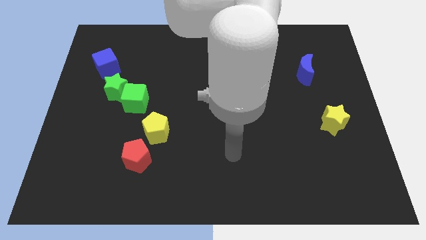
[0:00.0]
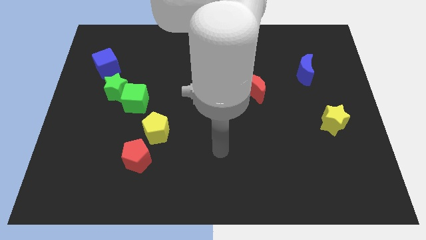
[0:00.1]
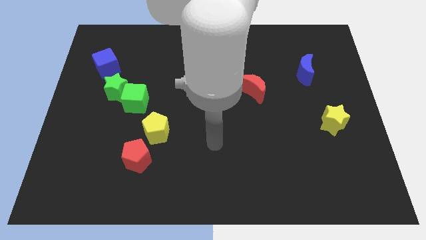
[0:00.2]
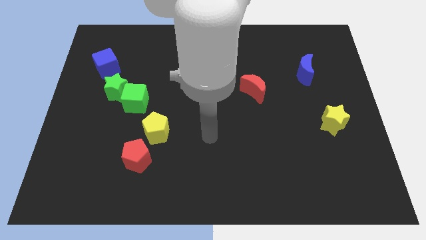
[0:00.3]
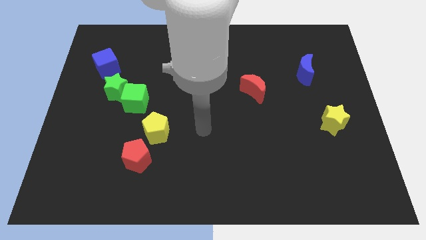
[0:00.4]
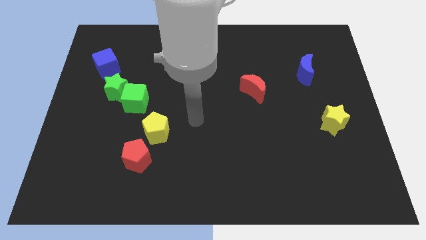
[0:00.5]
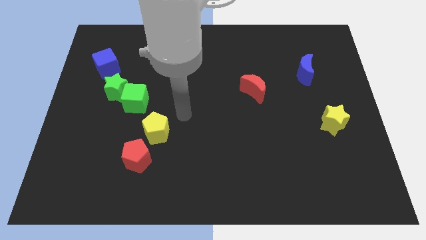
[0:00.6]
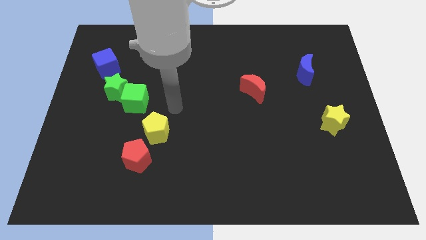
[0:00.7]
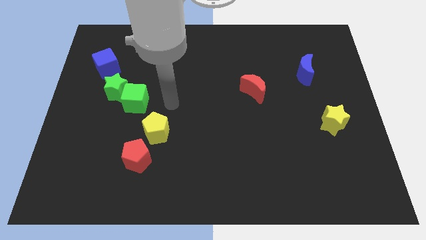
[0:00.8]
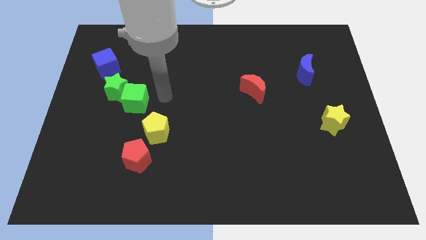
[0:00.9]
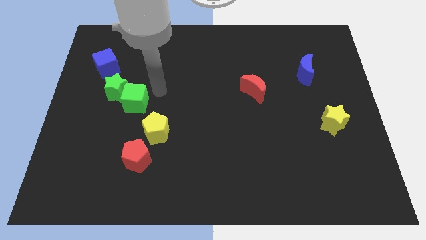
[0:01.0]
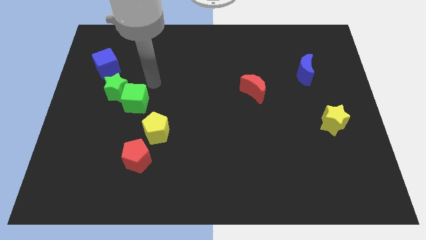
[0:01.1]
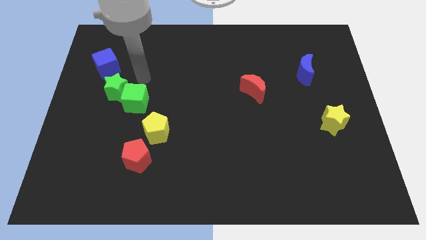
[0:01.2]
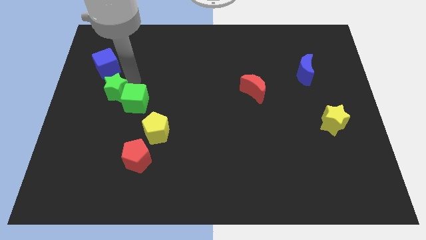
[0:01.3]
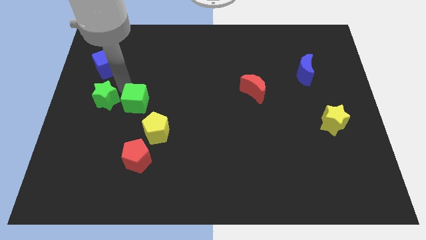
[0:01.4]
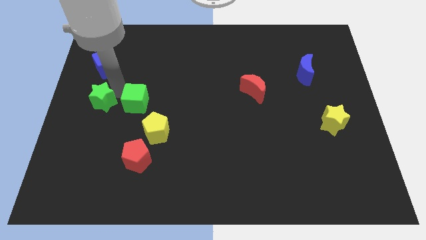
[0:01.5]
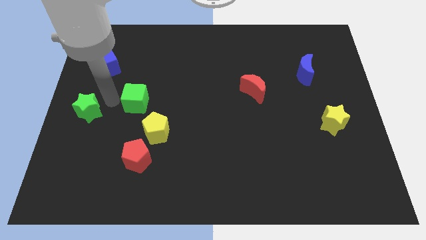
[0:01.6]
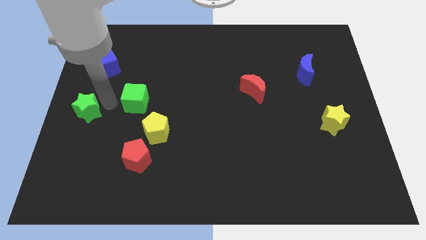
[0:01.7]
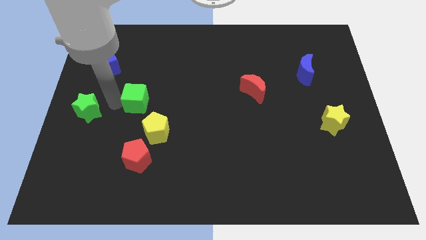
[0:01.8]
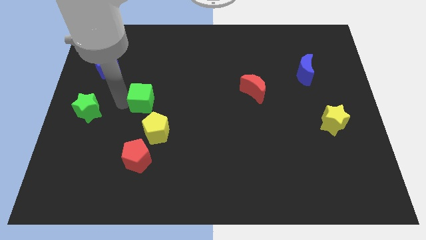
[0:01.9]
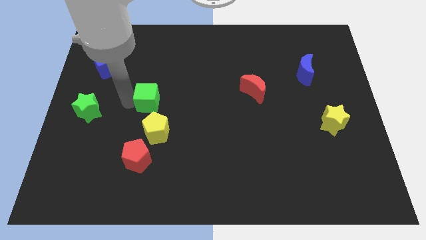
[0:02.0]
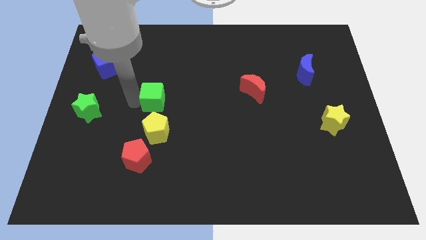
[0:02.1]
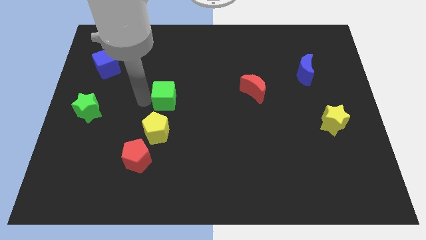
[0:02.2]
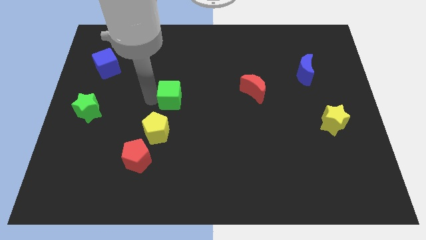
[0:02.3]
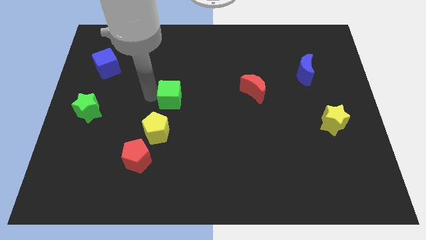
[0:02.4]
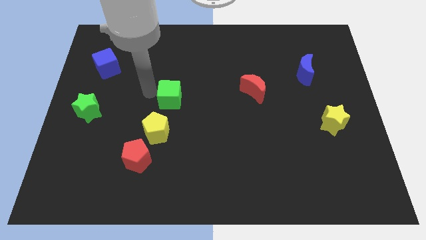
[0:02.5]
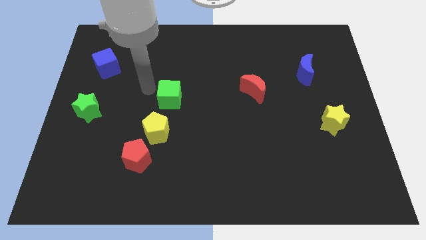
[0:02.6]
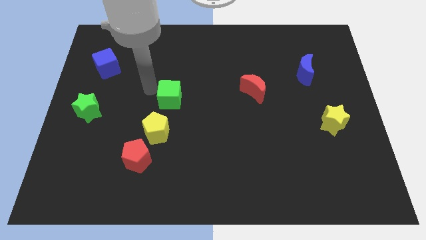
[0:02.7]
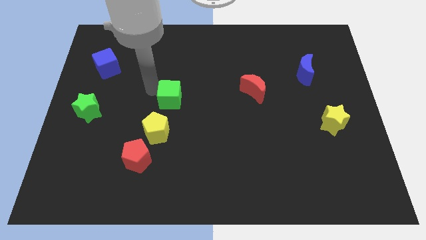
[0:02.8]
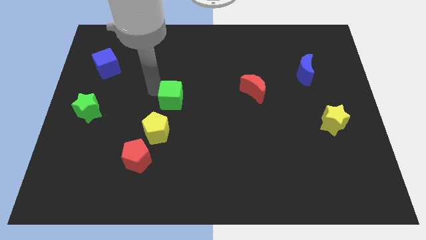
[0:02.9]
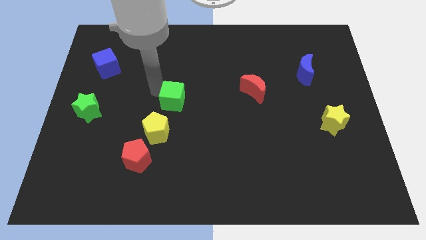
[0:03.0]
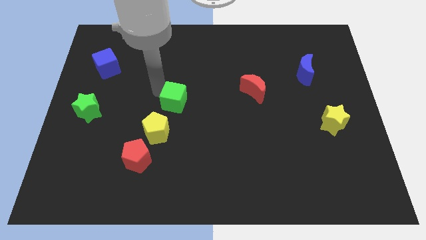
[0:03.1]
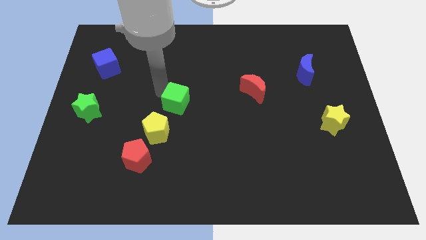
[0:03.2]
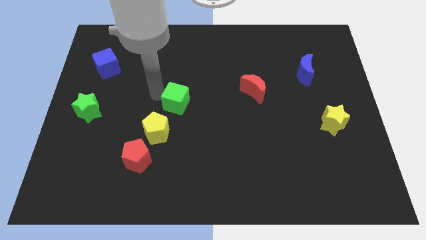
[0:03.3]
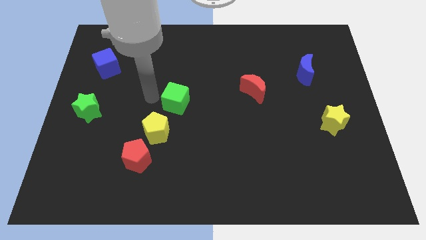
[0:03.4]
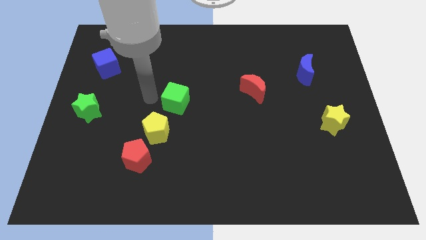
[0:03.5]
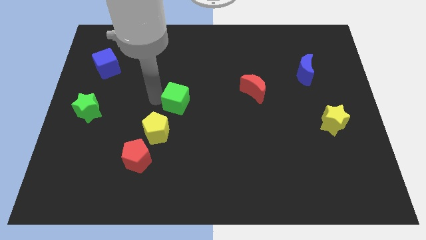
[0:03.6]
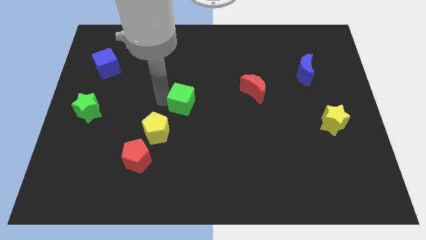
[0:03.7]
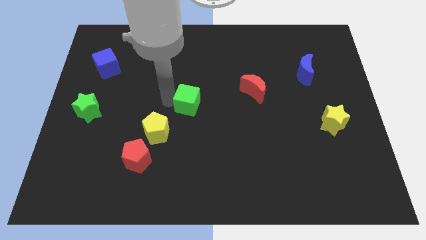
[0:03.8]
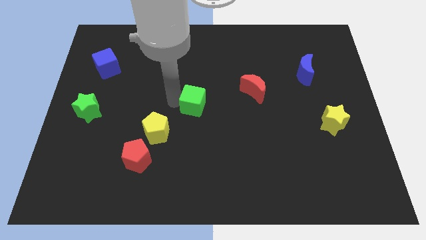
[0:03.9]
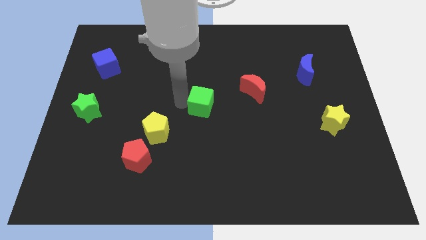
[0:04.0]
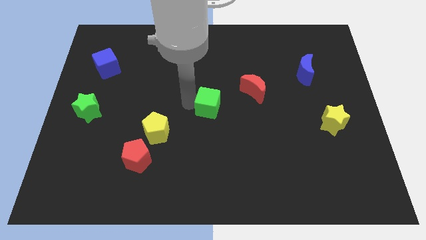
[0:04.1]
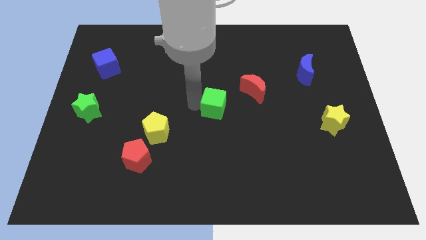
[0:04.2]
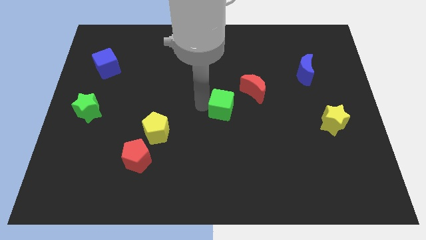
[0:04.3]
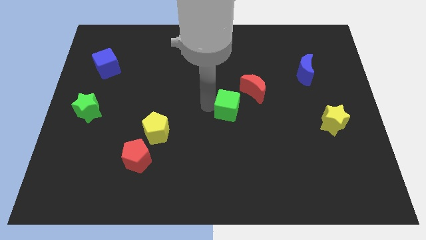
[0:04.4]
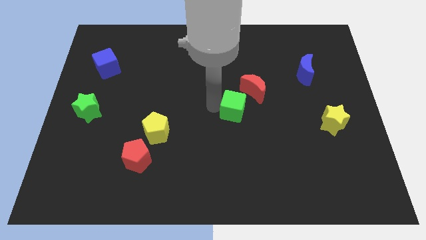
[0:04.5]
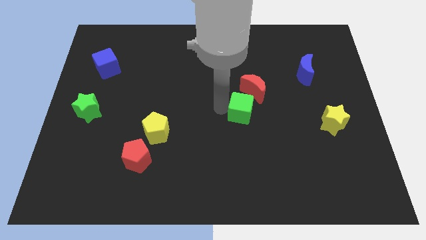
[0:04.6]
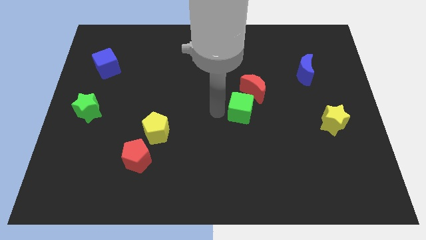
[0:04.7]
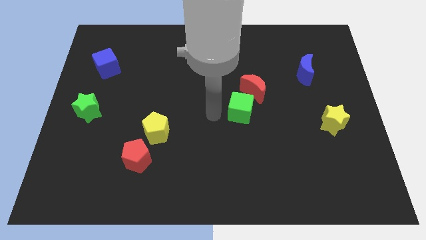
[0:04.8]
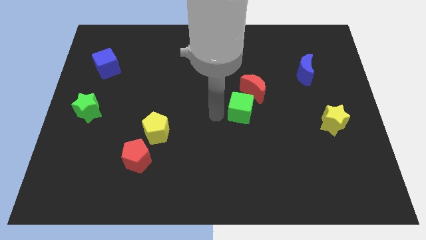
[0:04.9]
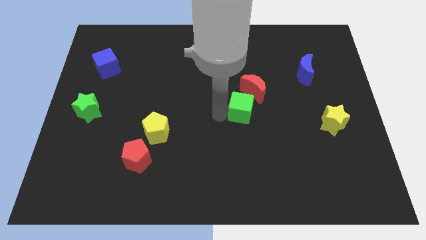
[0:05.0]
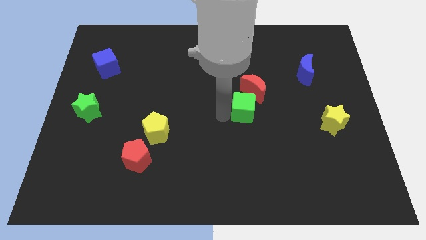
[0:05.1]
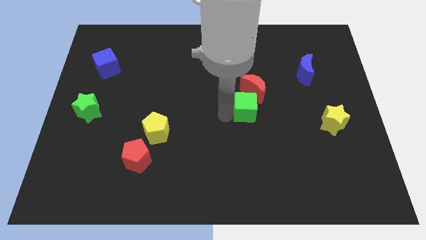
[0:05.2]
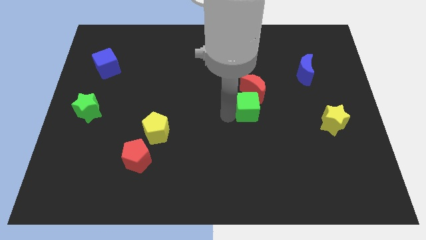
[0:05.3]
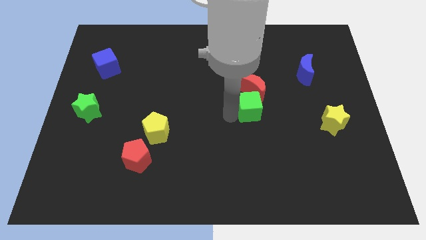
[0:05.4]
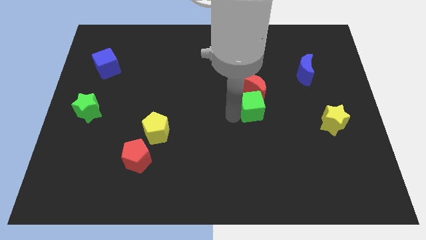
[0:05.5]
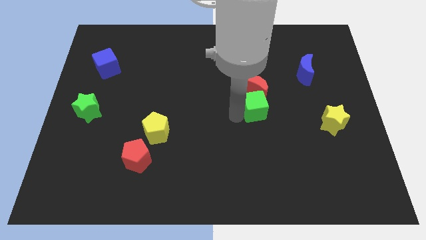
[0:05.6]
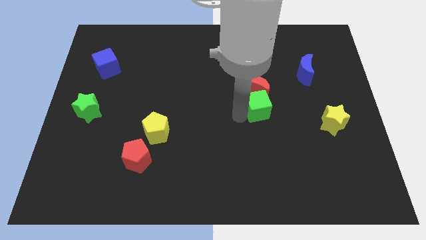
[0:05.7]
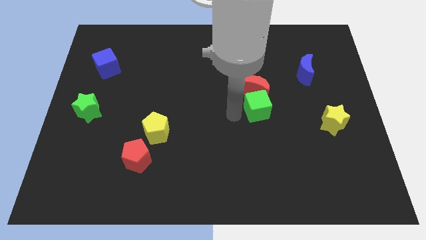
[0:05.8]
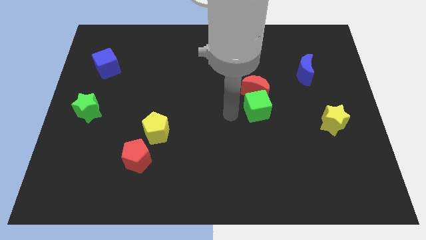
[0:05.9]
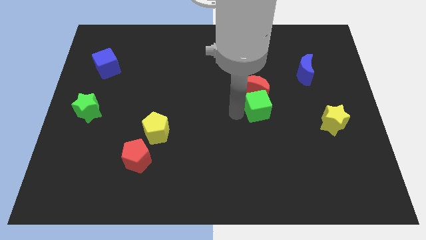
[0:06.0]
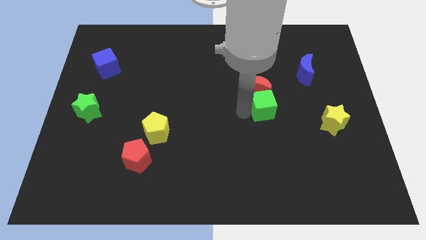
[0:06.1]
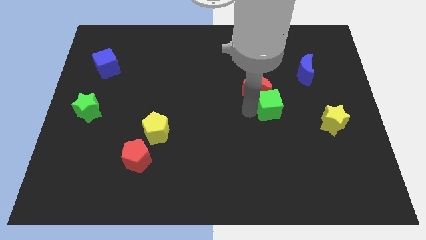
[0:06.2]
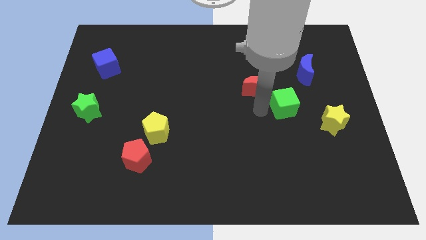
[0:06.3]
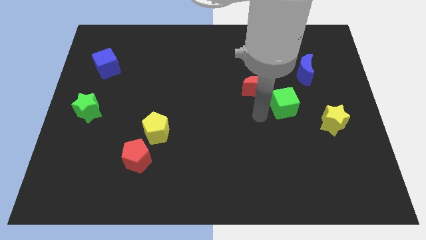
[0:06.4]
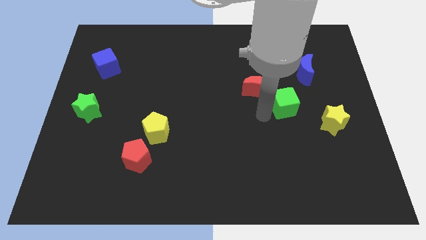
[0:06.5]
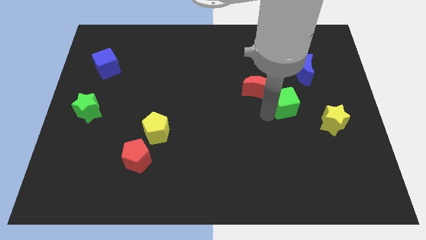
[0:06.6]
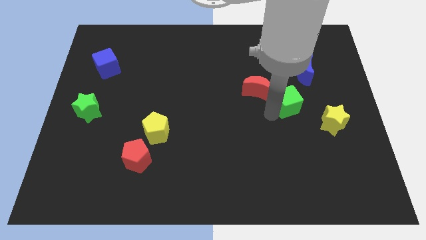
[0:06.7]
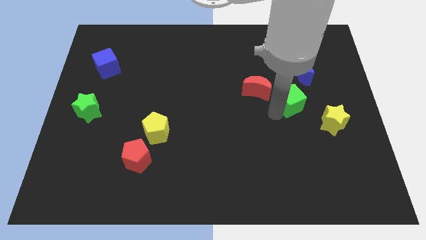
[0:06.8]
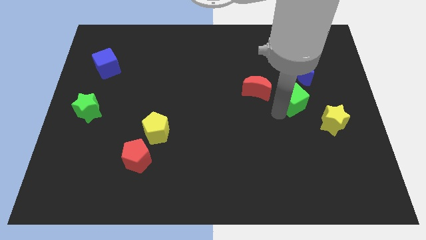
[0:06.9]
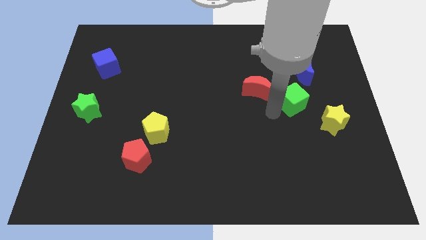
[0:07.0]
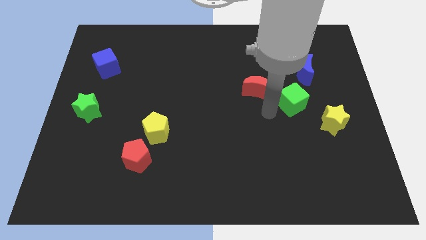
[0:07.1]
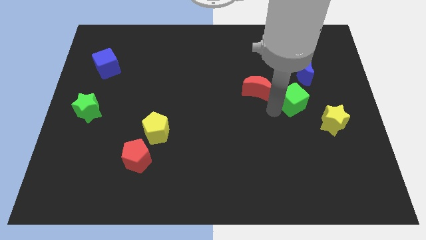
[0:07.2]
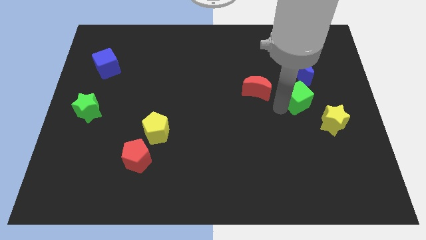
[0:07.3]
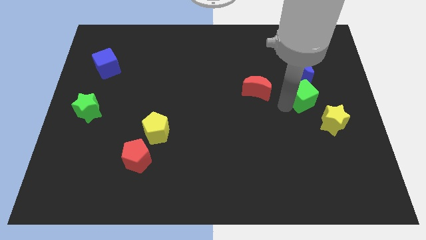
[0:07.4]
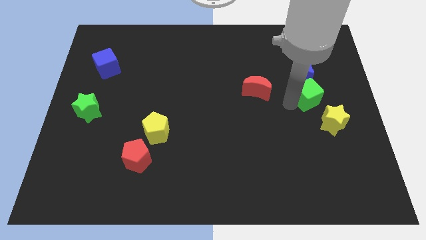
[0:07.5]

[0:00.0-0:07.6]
move the green cube above the yellow star

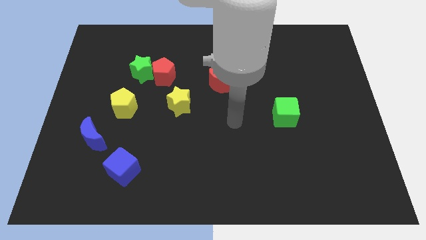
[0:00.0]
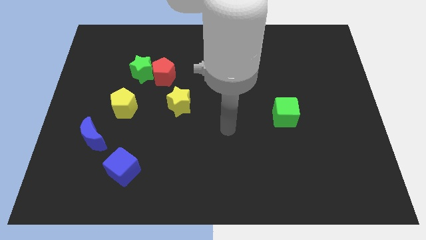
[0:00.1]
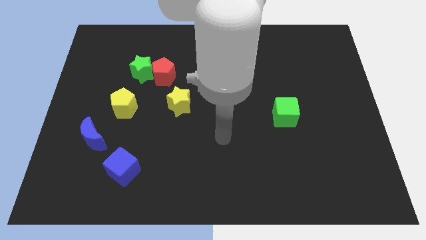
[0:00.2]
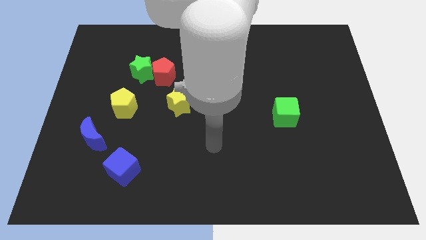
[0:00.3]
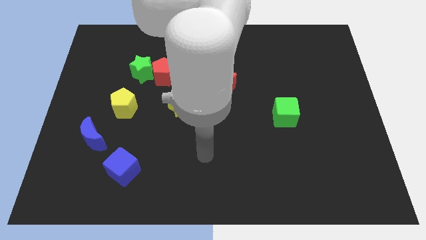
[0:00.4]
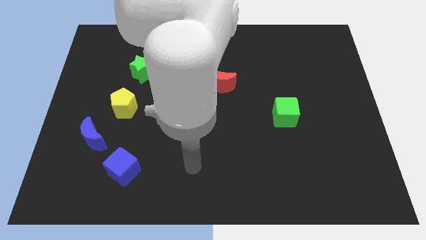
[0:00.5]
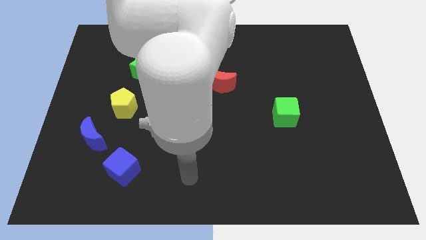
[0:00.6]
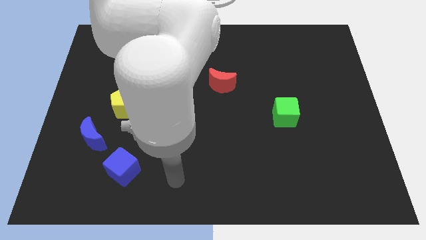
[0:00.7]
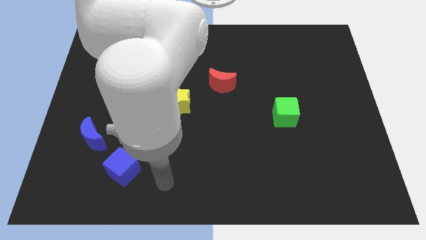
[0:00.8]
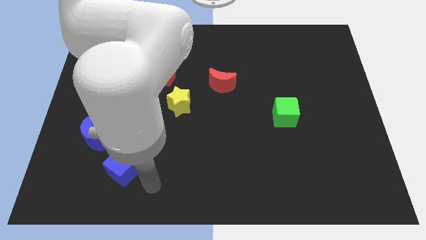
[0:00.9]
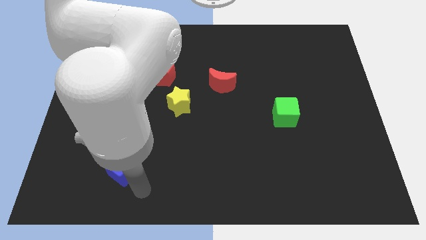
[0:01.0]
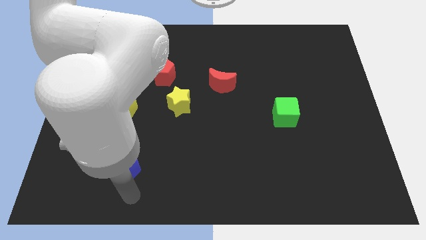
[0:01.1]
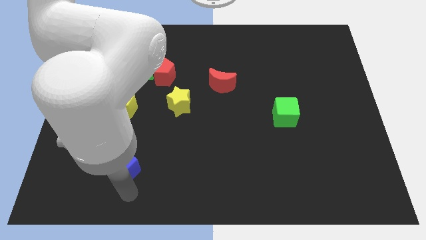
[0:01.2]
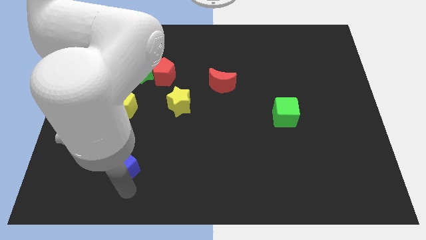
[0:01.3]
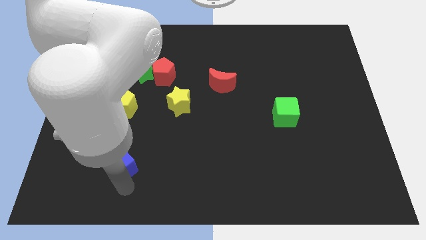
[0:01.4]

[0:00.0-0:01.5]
put the blue cube below the yellow pentagon
